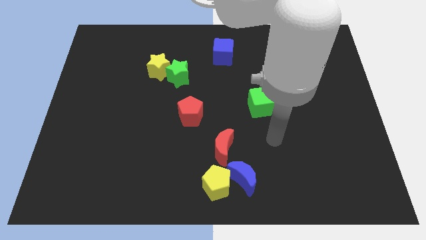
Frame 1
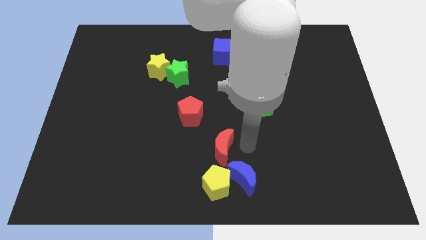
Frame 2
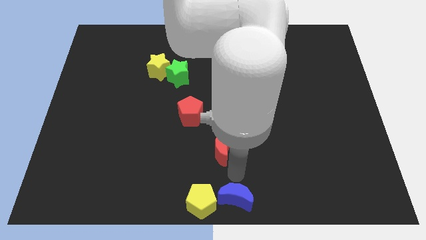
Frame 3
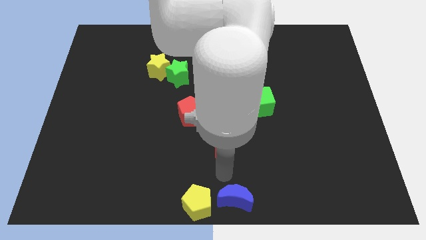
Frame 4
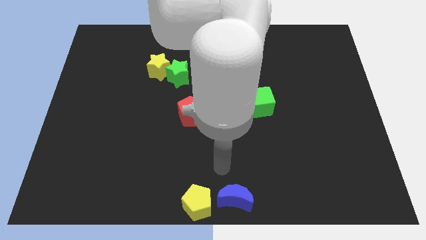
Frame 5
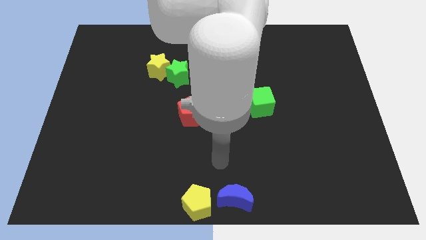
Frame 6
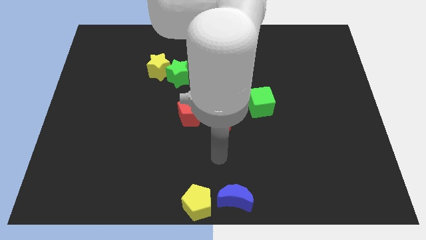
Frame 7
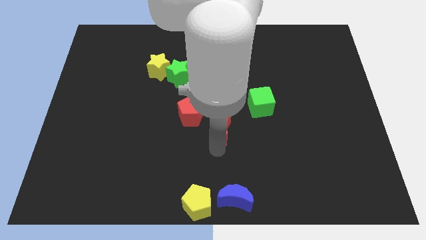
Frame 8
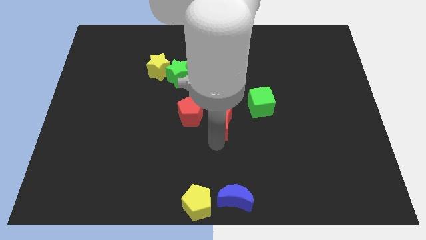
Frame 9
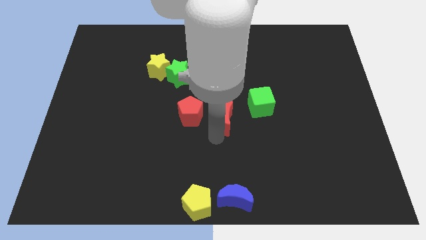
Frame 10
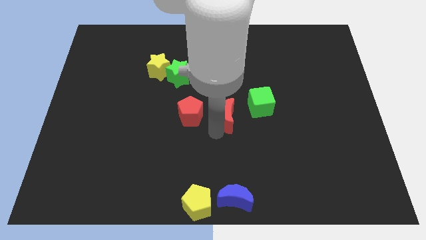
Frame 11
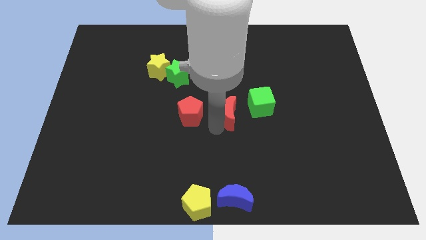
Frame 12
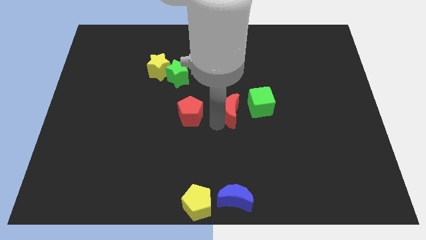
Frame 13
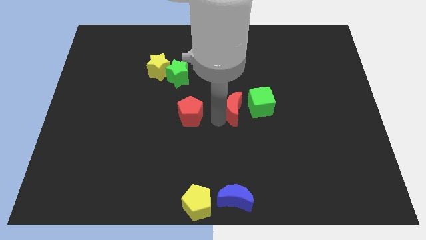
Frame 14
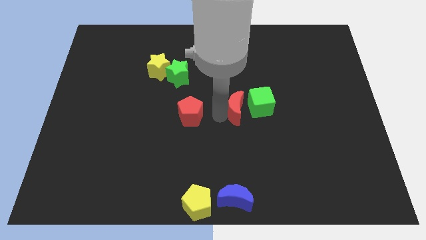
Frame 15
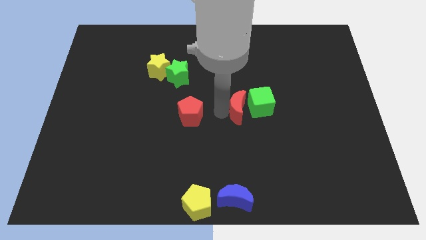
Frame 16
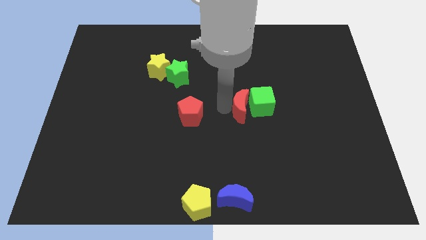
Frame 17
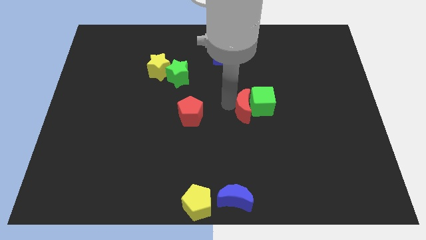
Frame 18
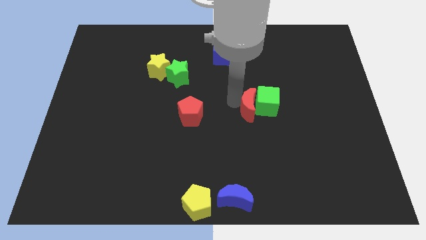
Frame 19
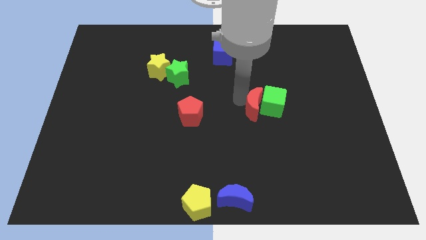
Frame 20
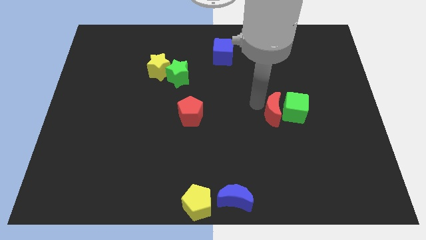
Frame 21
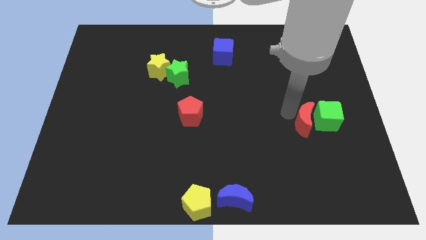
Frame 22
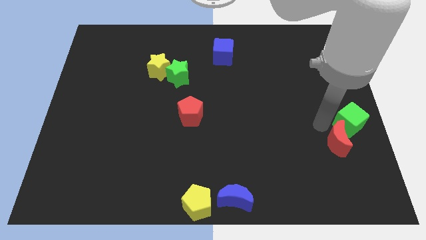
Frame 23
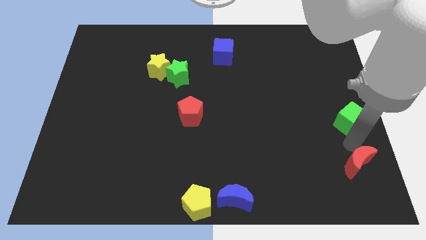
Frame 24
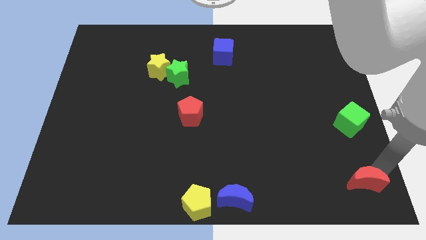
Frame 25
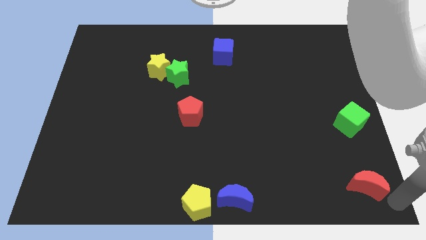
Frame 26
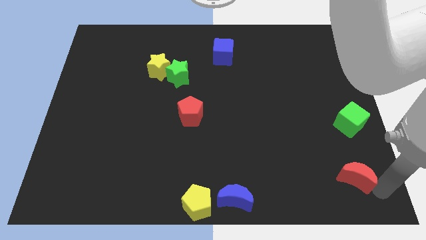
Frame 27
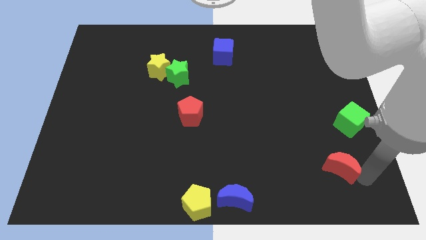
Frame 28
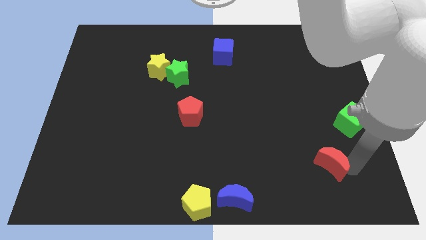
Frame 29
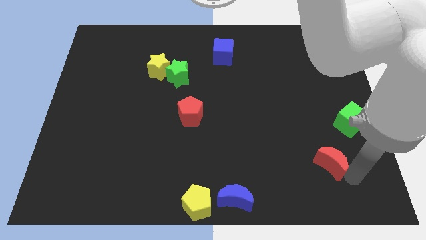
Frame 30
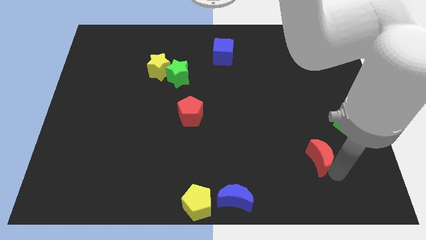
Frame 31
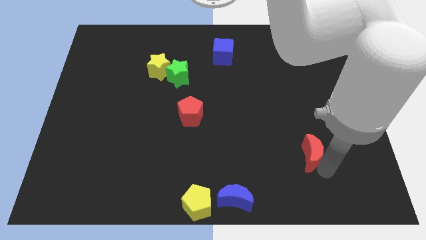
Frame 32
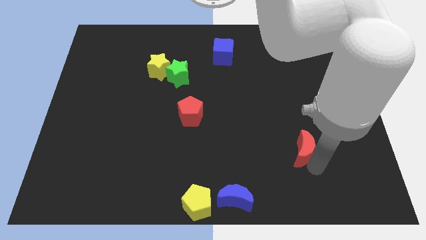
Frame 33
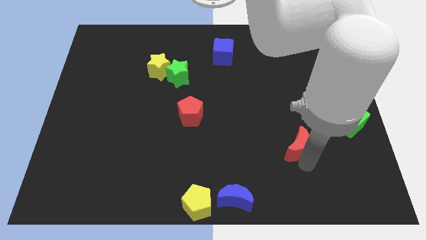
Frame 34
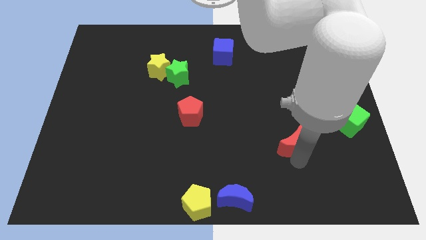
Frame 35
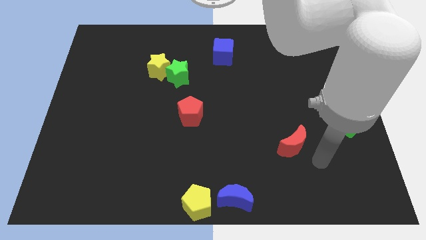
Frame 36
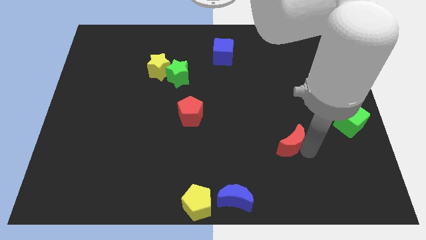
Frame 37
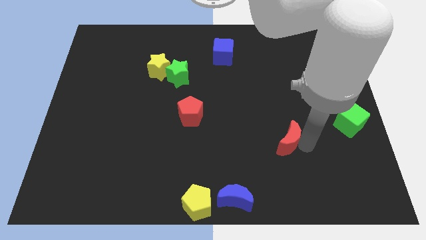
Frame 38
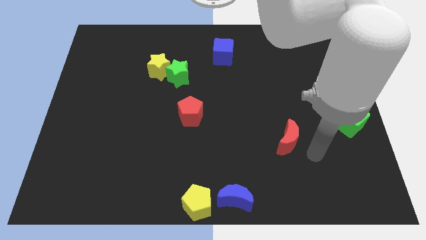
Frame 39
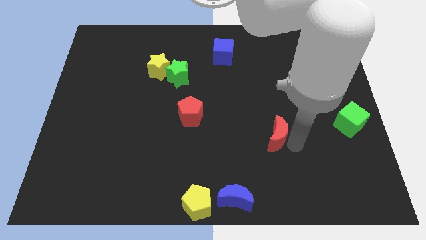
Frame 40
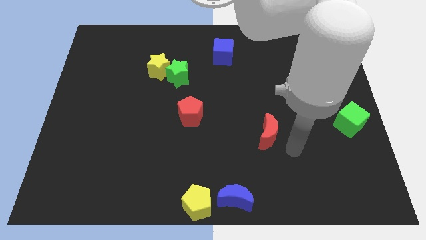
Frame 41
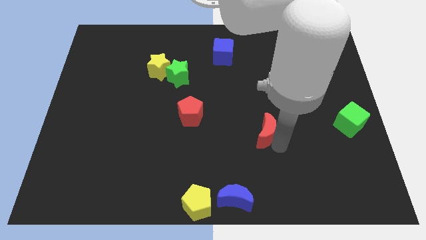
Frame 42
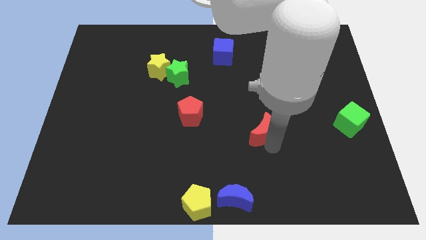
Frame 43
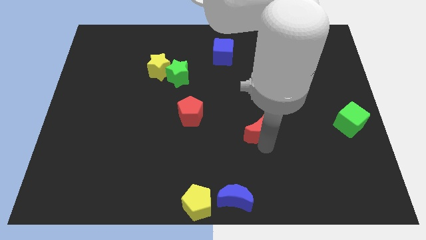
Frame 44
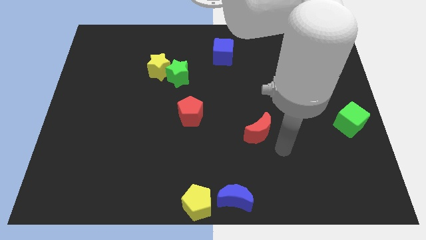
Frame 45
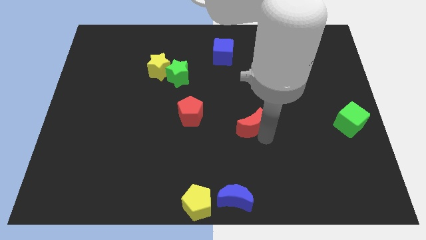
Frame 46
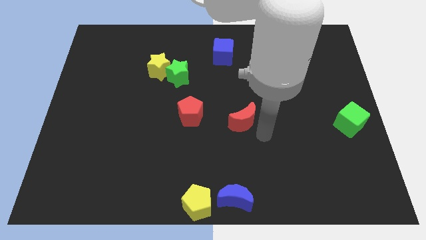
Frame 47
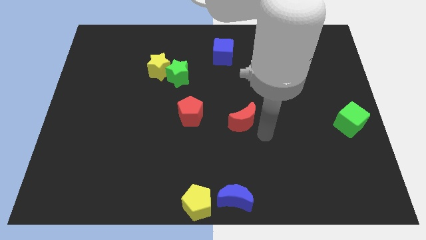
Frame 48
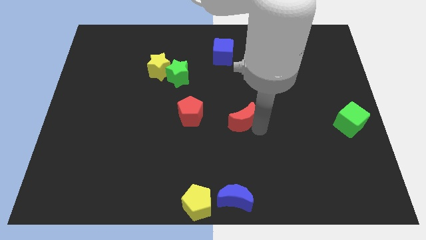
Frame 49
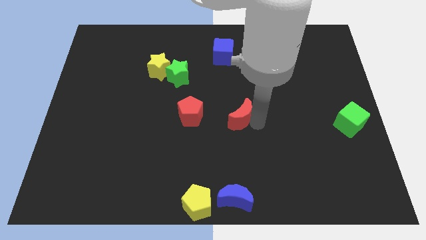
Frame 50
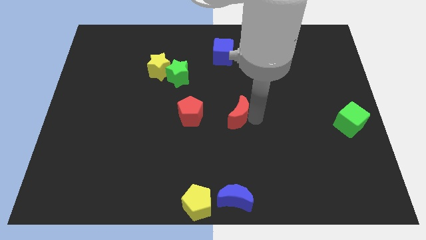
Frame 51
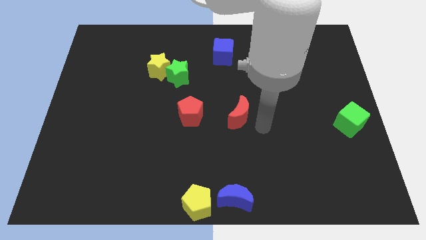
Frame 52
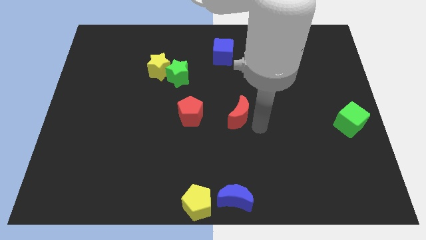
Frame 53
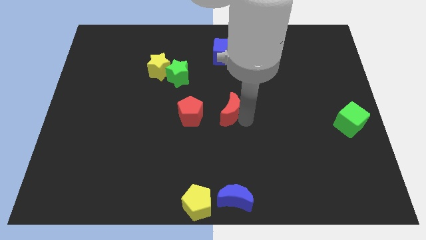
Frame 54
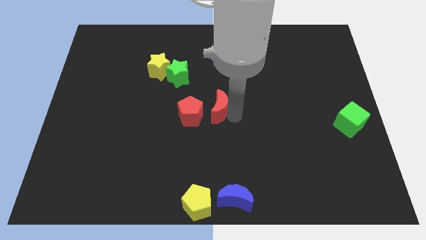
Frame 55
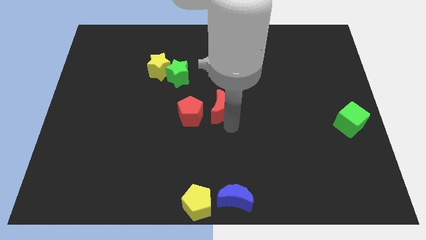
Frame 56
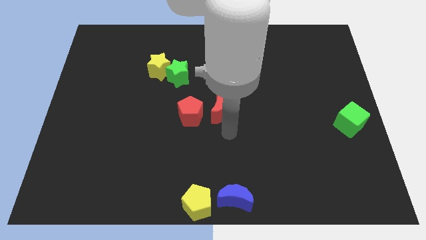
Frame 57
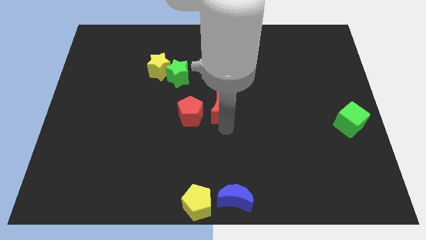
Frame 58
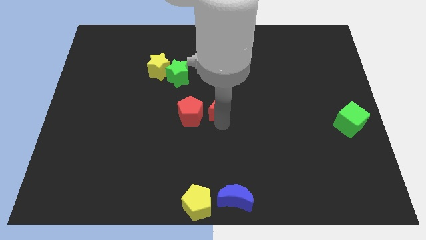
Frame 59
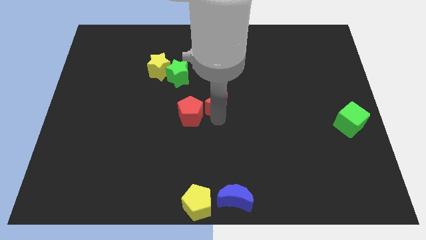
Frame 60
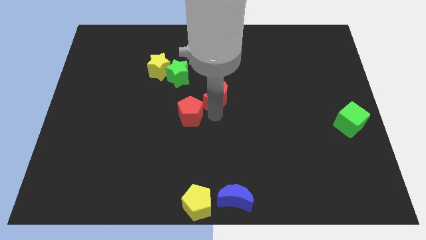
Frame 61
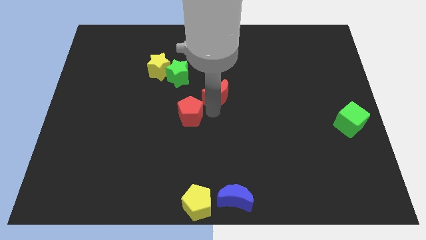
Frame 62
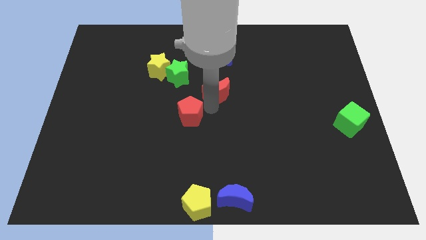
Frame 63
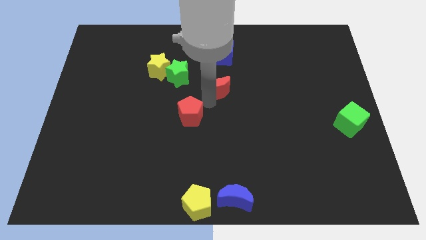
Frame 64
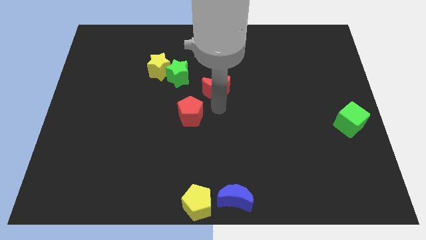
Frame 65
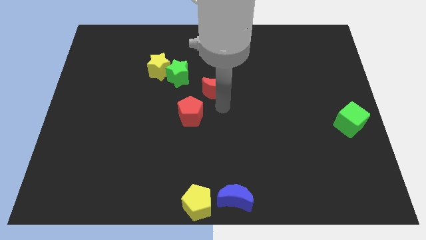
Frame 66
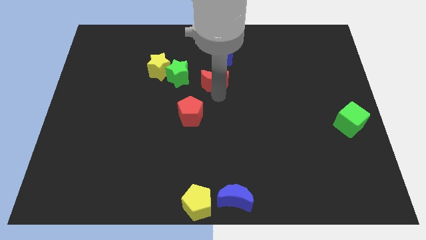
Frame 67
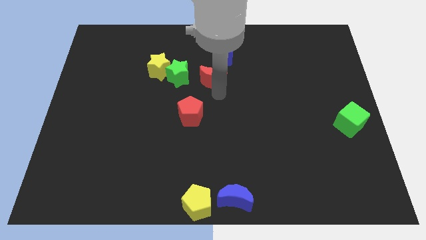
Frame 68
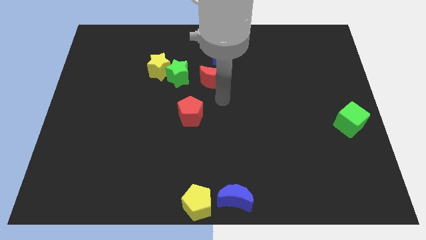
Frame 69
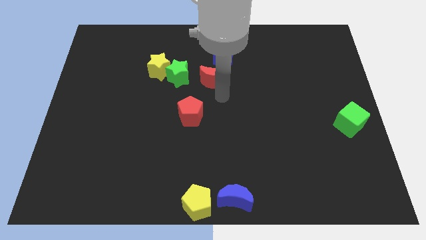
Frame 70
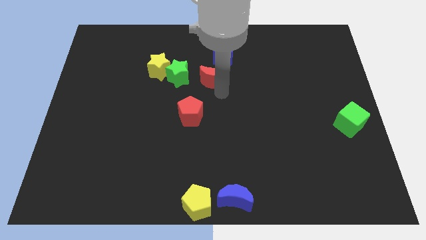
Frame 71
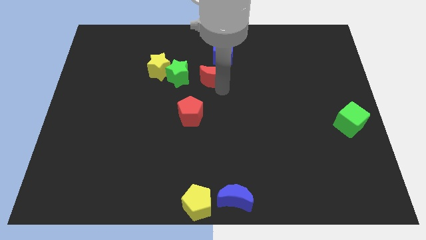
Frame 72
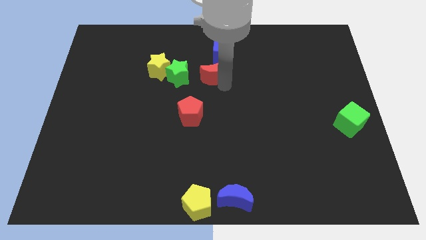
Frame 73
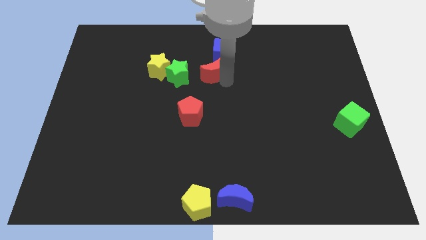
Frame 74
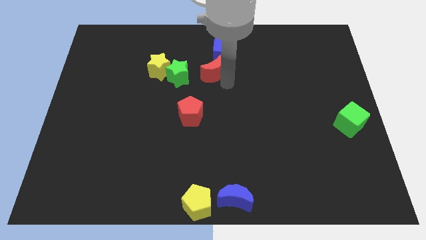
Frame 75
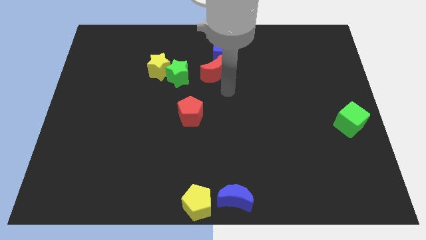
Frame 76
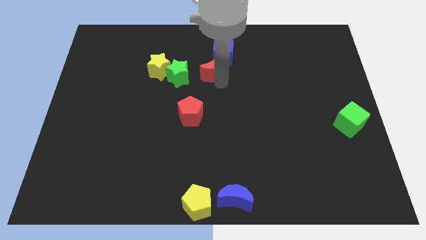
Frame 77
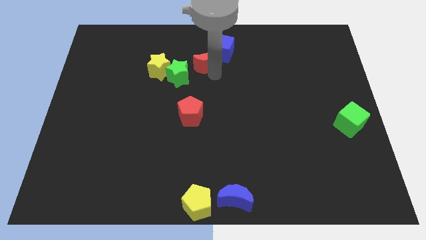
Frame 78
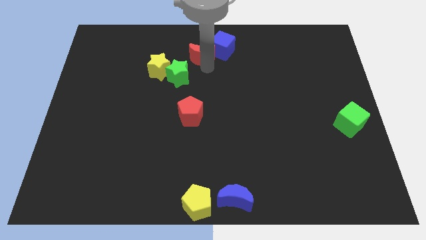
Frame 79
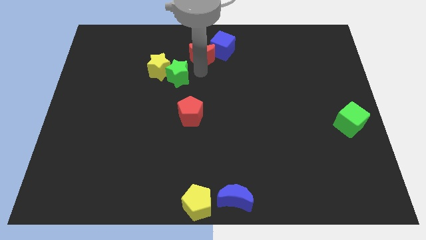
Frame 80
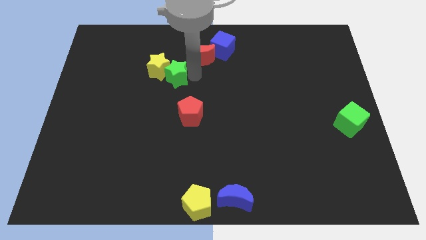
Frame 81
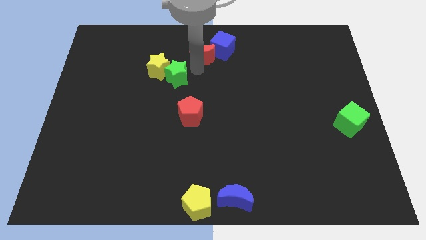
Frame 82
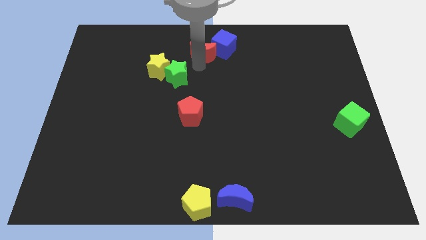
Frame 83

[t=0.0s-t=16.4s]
put the red moon to the top side
